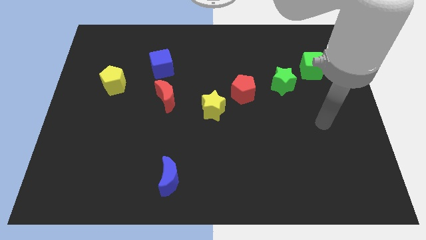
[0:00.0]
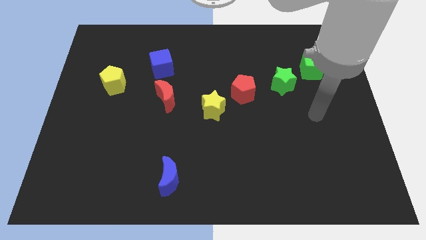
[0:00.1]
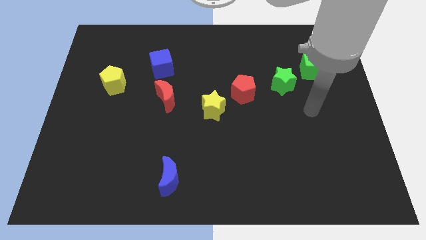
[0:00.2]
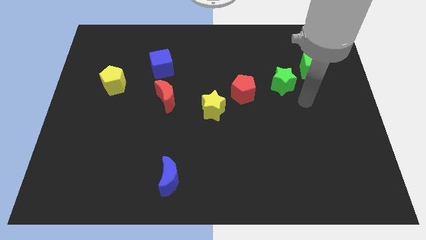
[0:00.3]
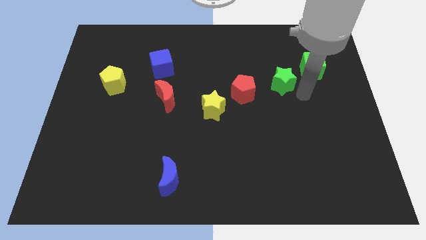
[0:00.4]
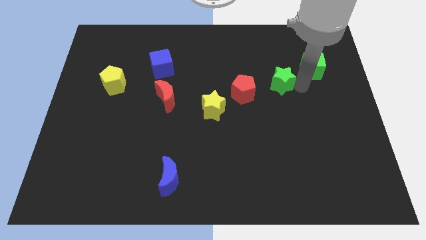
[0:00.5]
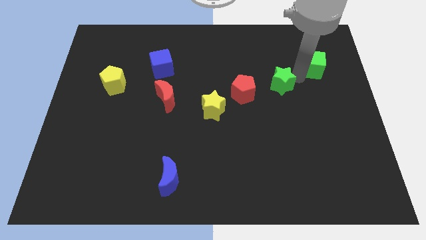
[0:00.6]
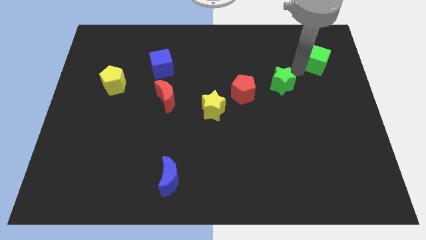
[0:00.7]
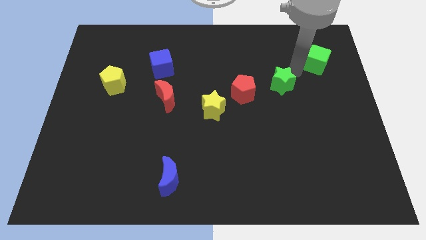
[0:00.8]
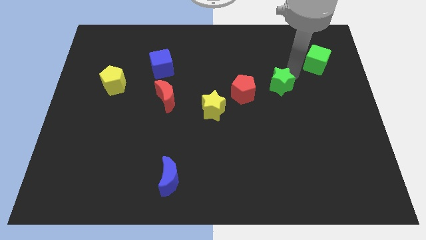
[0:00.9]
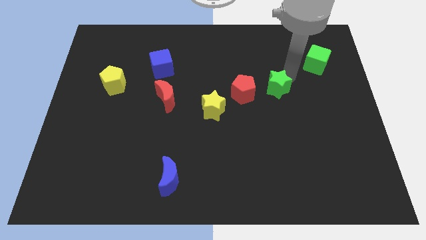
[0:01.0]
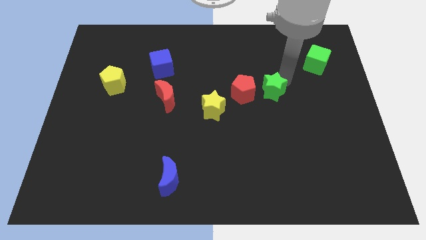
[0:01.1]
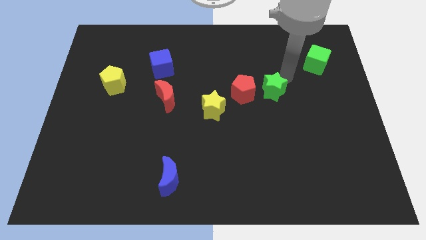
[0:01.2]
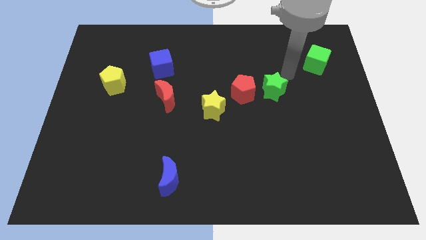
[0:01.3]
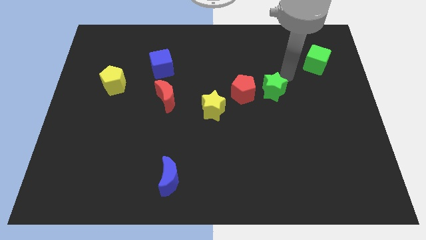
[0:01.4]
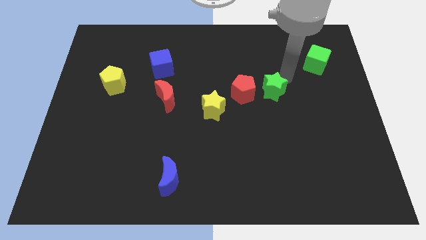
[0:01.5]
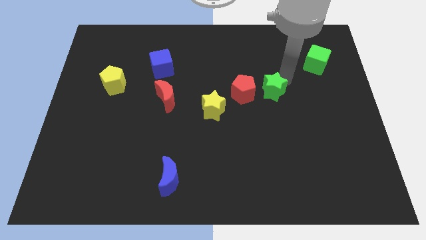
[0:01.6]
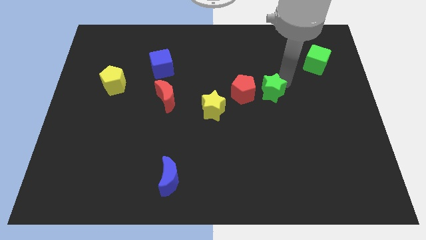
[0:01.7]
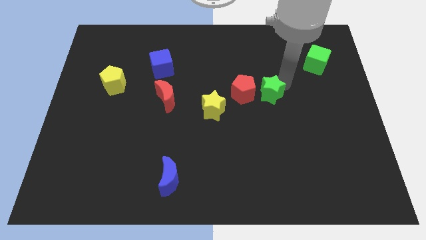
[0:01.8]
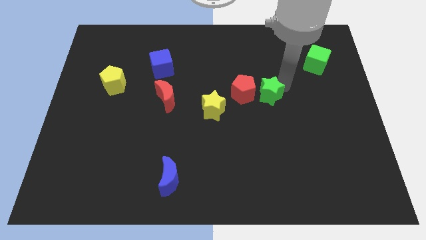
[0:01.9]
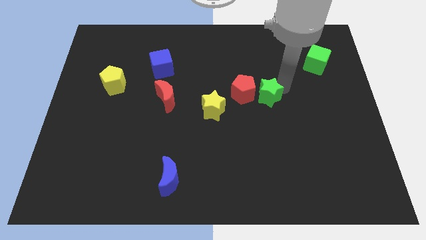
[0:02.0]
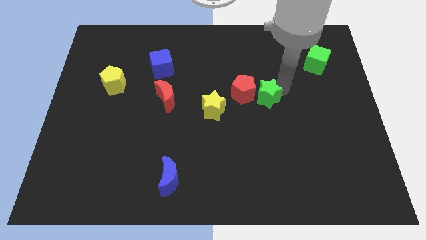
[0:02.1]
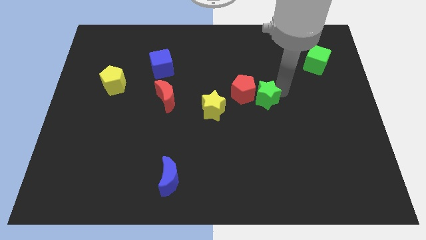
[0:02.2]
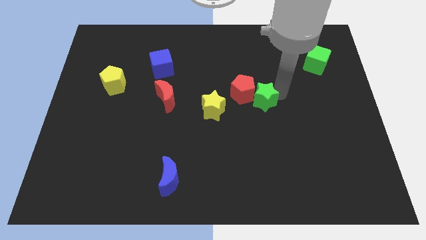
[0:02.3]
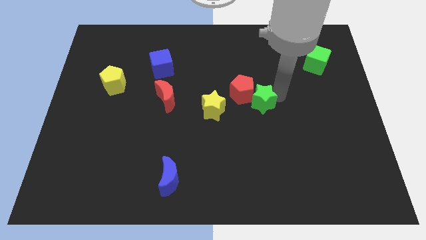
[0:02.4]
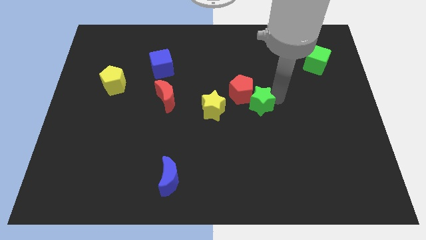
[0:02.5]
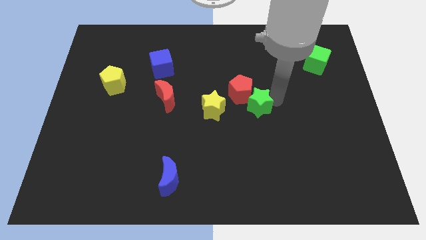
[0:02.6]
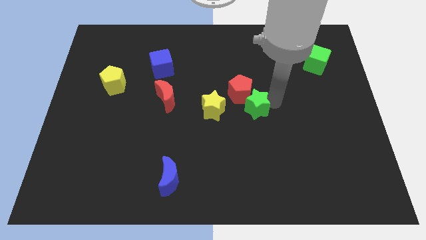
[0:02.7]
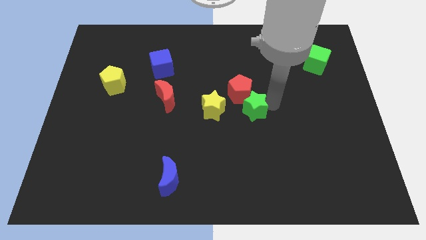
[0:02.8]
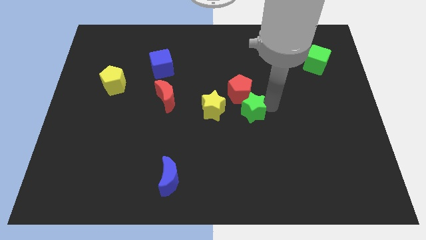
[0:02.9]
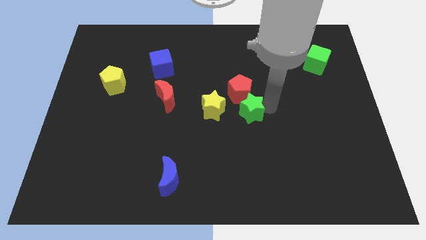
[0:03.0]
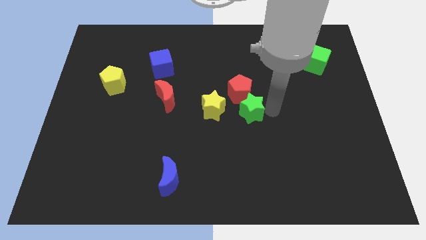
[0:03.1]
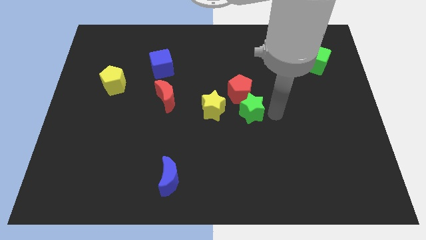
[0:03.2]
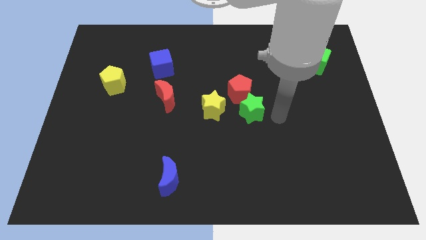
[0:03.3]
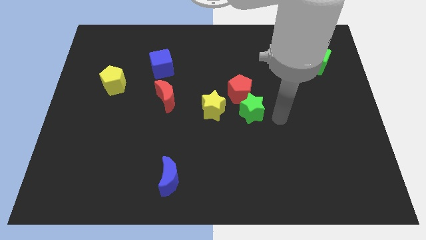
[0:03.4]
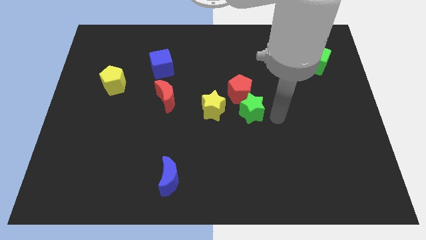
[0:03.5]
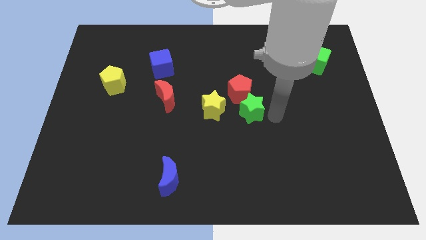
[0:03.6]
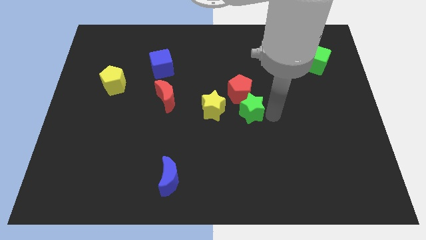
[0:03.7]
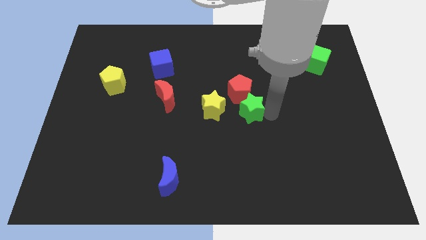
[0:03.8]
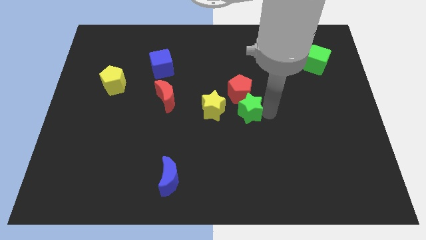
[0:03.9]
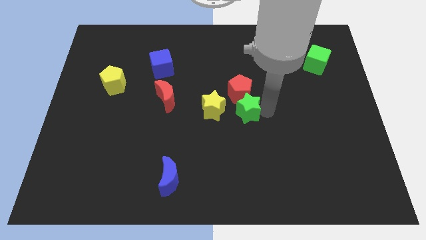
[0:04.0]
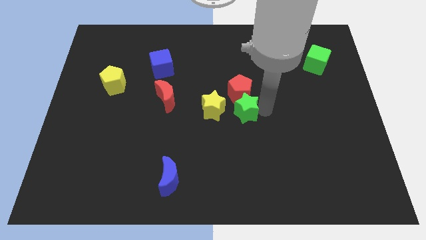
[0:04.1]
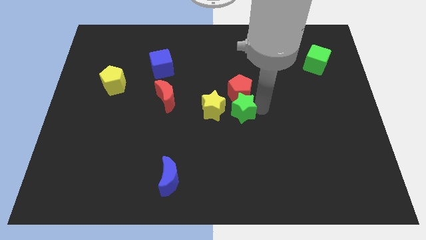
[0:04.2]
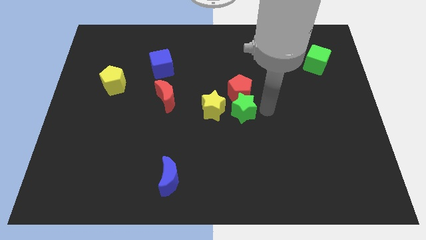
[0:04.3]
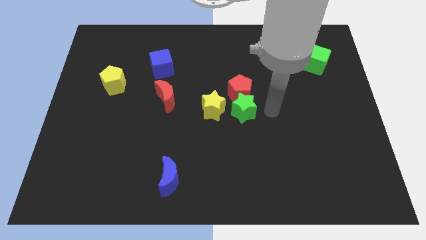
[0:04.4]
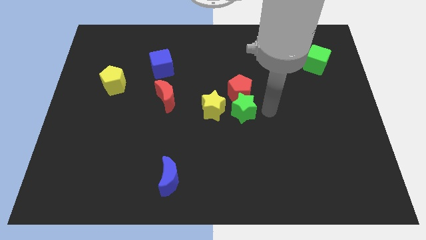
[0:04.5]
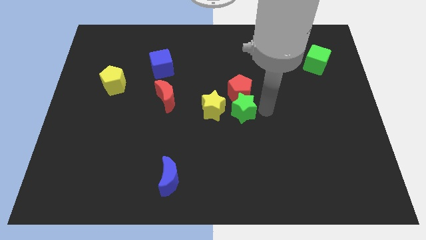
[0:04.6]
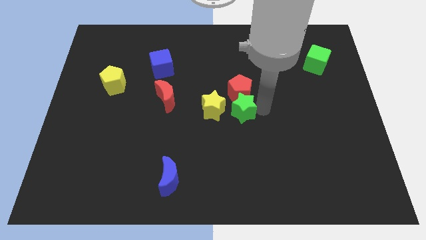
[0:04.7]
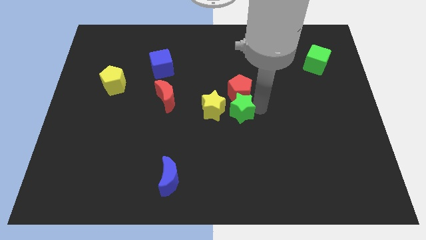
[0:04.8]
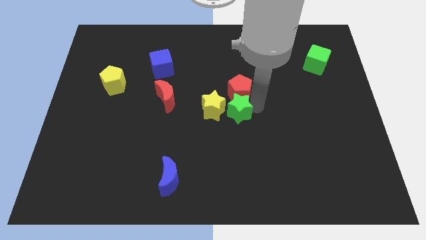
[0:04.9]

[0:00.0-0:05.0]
slide the green star towards the yellow star

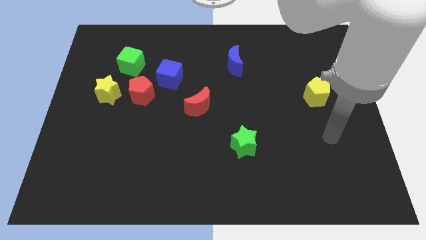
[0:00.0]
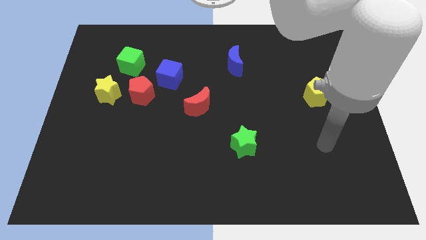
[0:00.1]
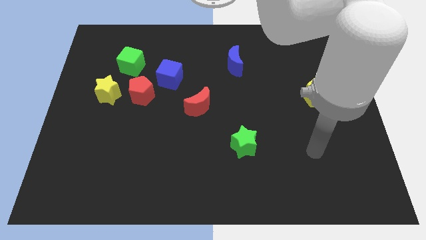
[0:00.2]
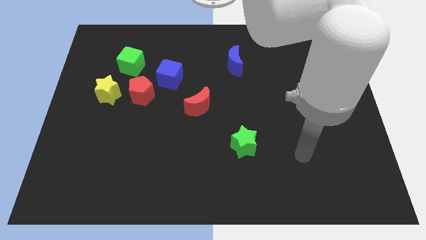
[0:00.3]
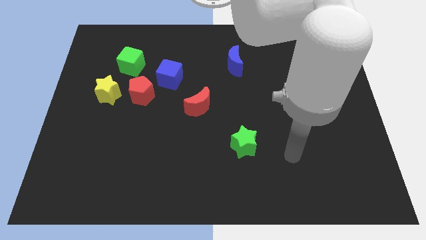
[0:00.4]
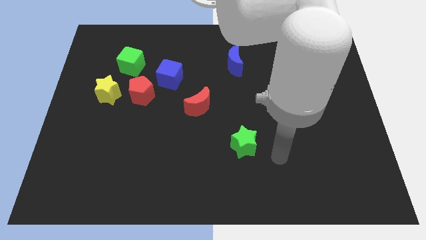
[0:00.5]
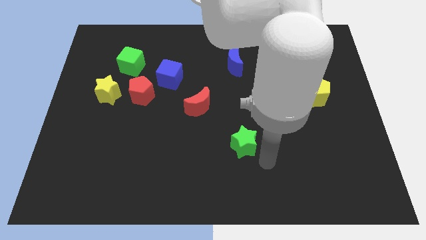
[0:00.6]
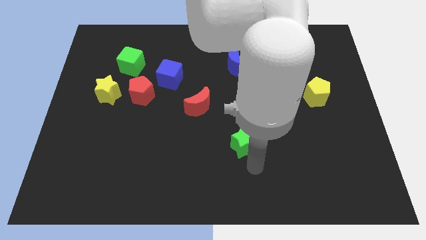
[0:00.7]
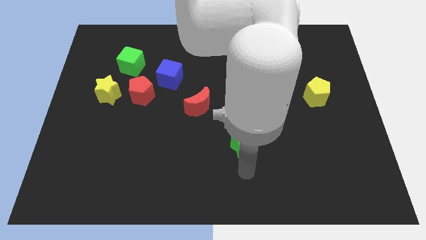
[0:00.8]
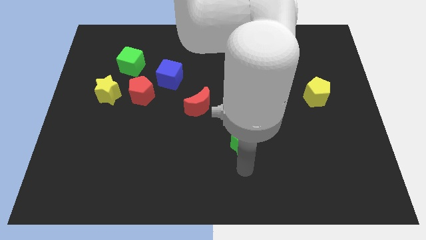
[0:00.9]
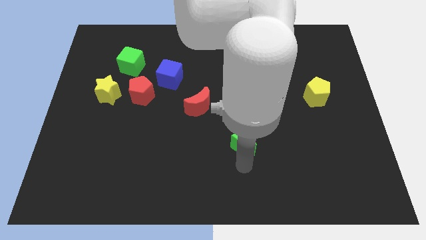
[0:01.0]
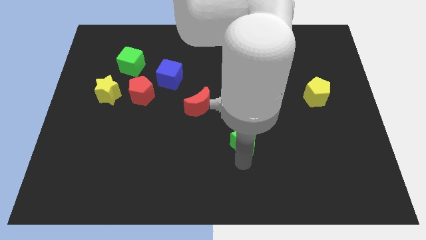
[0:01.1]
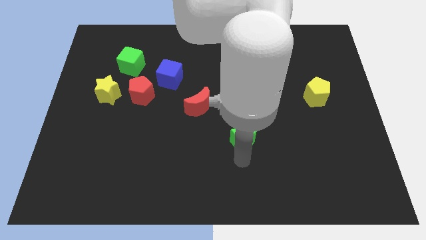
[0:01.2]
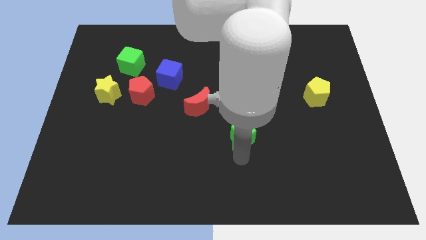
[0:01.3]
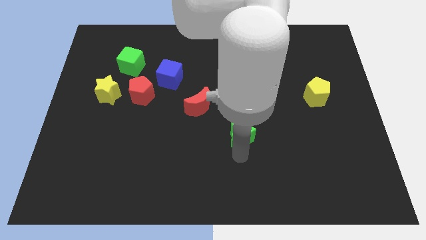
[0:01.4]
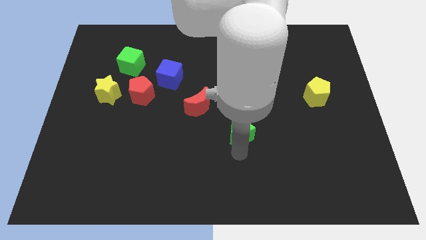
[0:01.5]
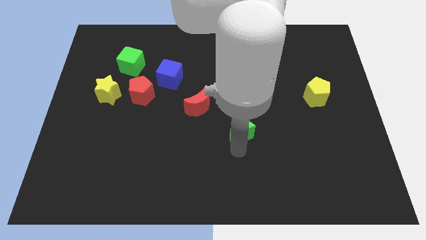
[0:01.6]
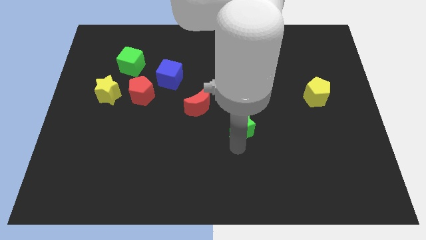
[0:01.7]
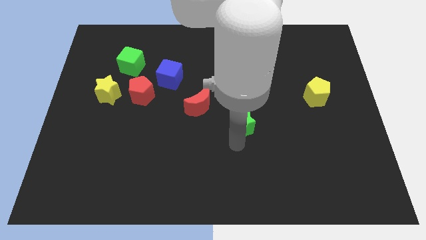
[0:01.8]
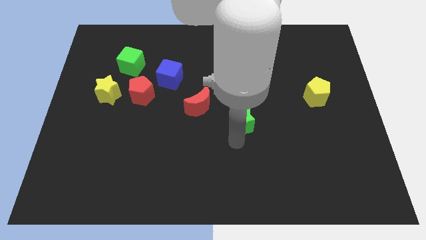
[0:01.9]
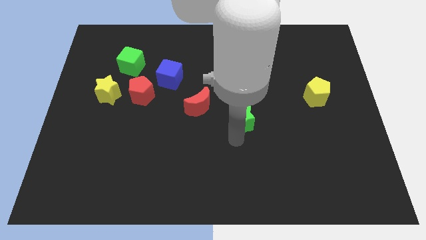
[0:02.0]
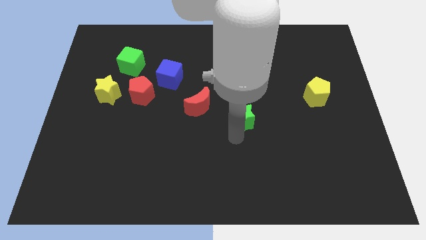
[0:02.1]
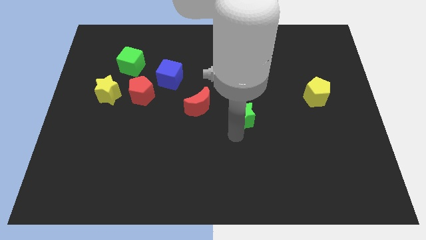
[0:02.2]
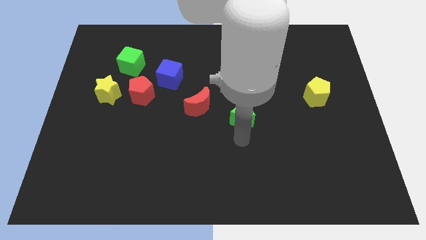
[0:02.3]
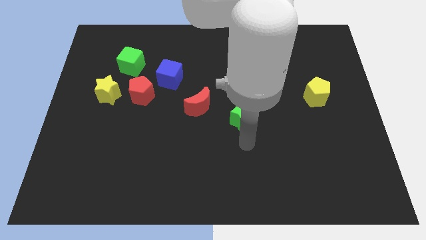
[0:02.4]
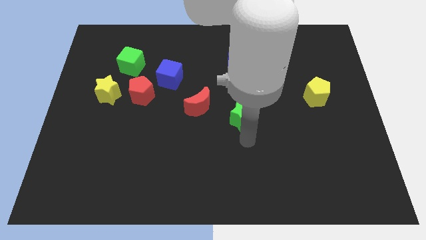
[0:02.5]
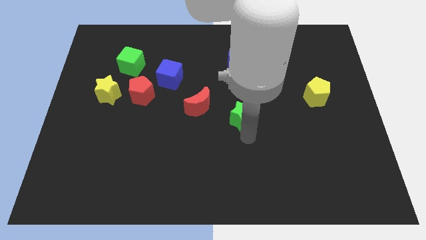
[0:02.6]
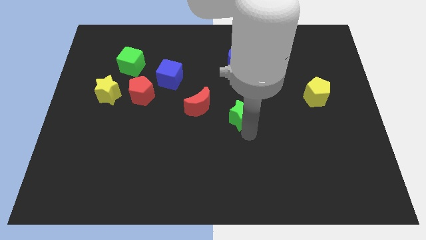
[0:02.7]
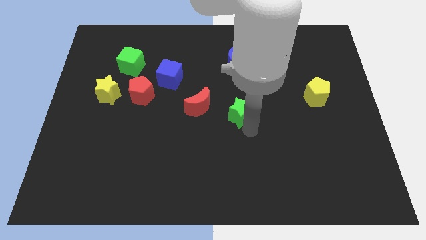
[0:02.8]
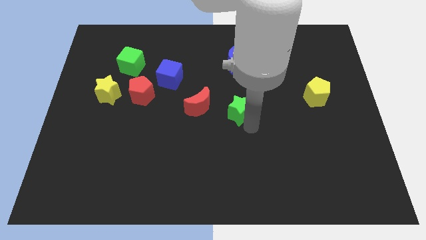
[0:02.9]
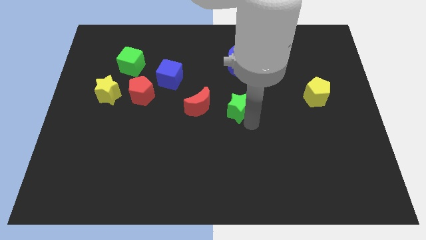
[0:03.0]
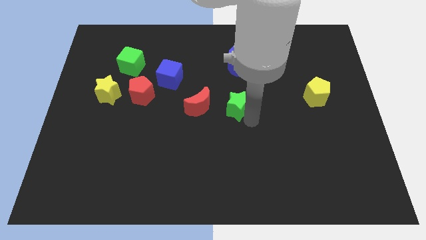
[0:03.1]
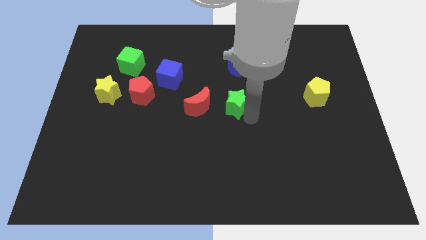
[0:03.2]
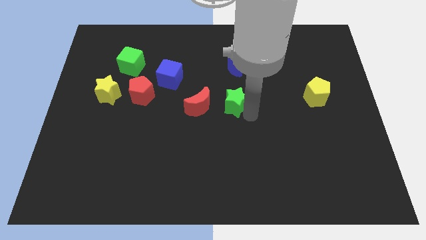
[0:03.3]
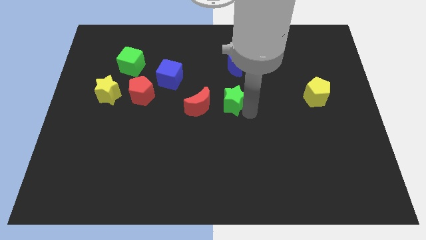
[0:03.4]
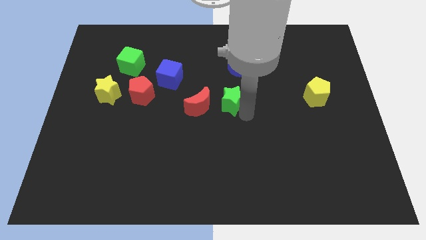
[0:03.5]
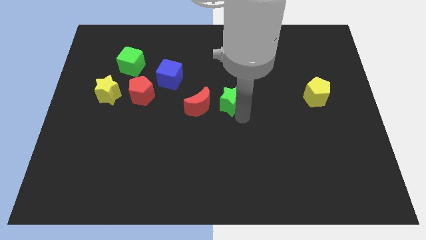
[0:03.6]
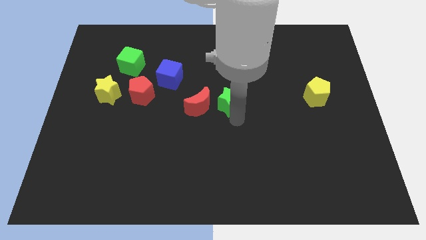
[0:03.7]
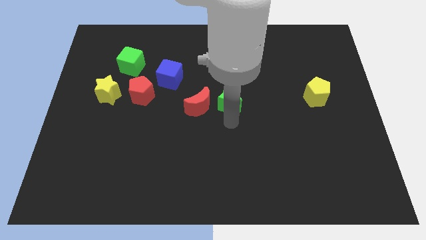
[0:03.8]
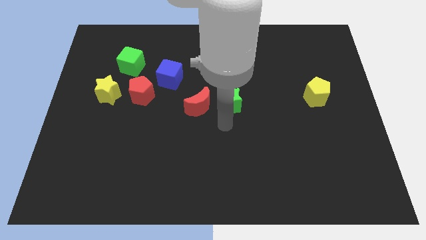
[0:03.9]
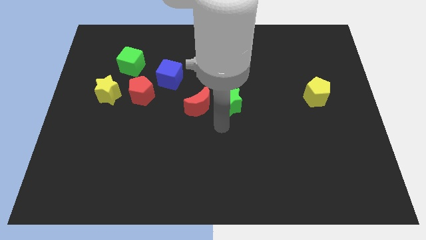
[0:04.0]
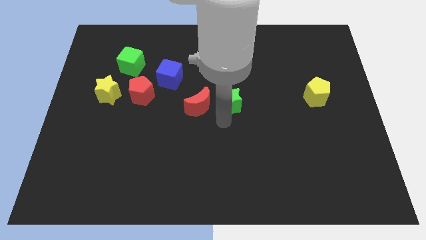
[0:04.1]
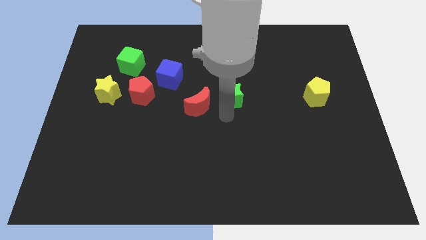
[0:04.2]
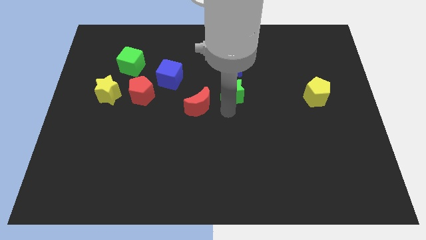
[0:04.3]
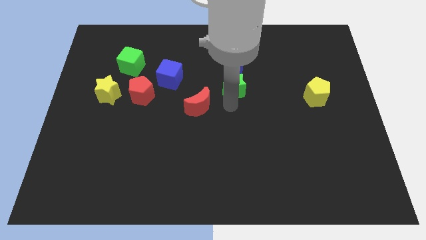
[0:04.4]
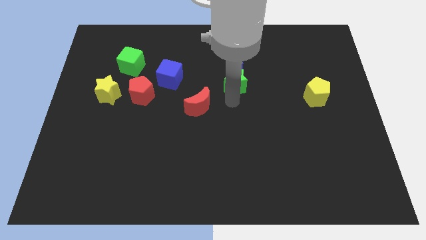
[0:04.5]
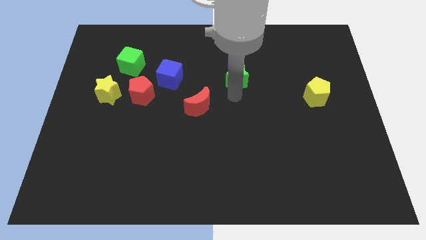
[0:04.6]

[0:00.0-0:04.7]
put the green star to the blue moon
